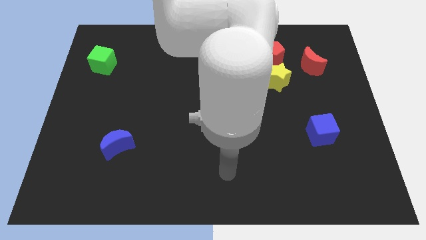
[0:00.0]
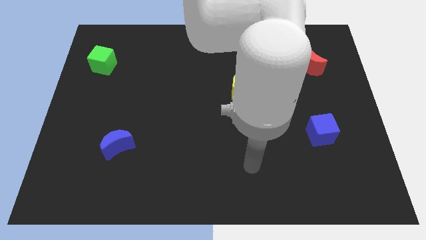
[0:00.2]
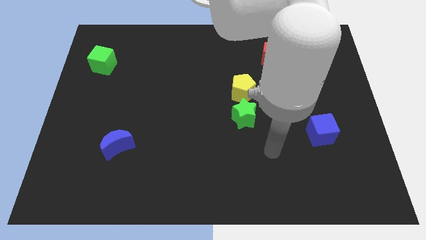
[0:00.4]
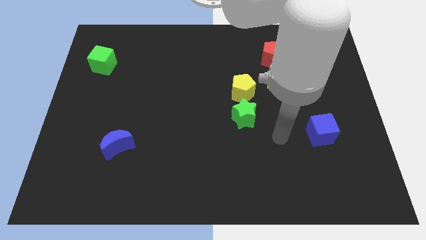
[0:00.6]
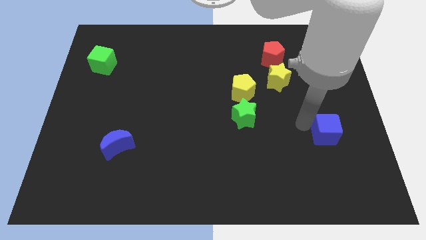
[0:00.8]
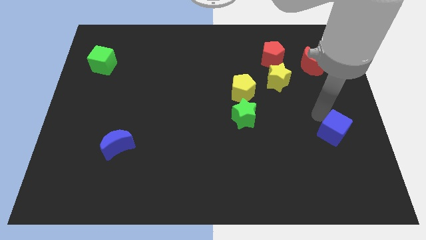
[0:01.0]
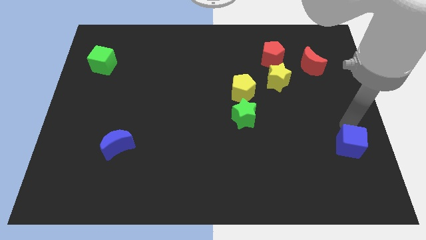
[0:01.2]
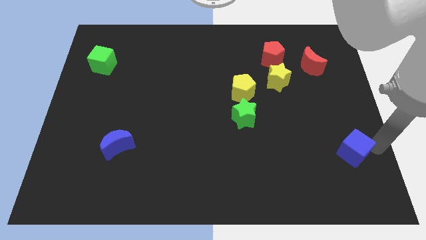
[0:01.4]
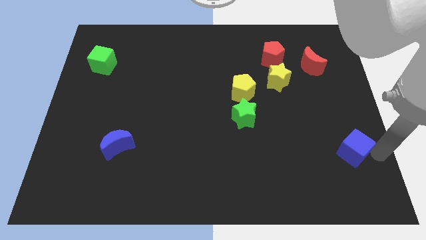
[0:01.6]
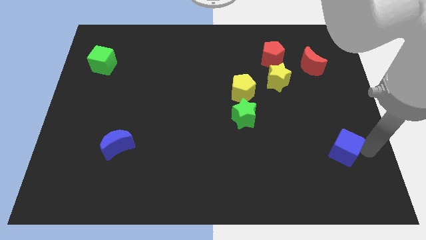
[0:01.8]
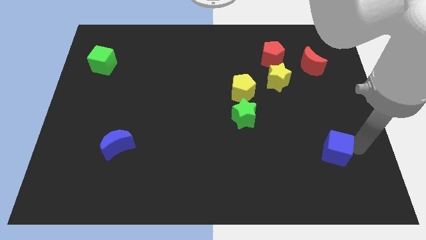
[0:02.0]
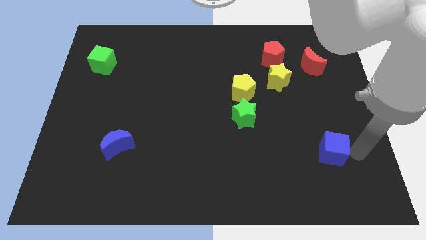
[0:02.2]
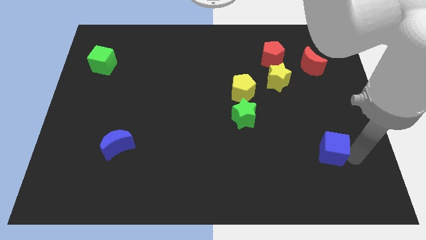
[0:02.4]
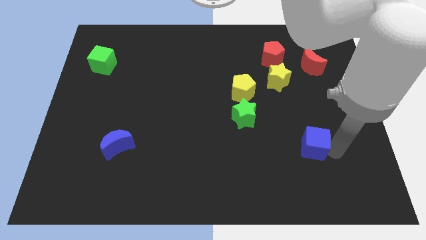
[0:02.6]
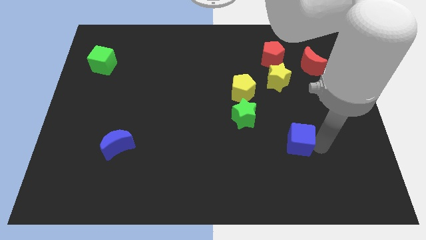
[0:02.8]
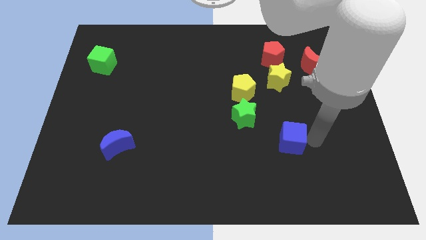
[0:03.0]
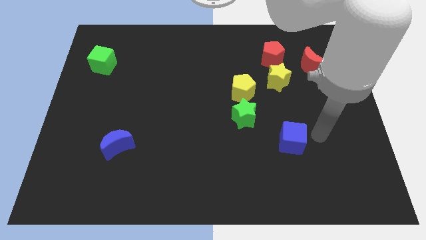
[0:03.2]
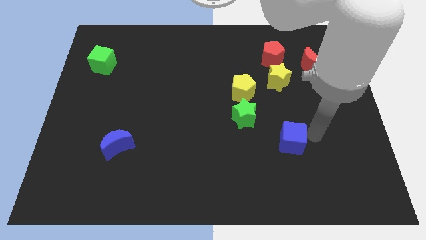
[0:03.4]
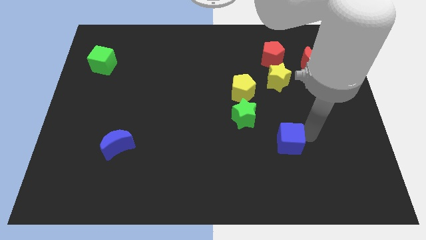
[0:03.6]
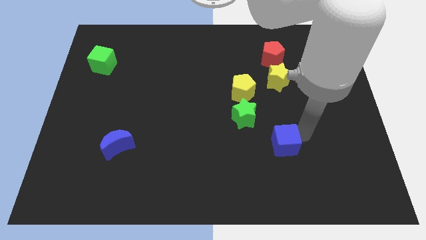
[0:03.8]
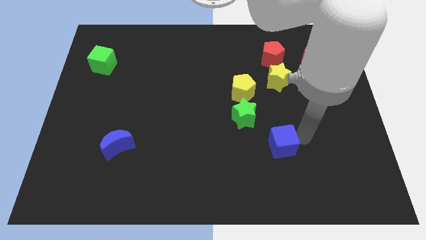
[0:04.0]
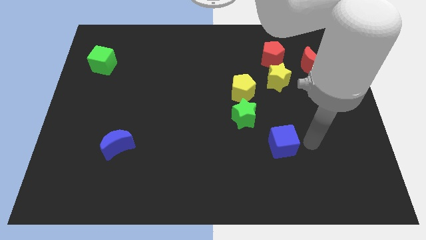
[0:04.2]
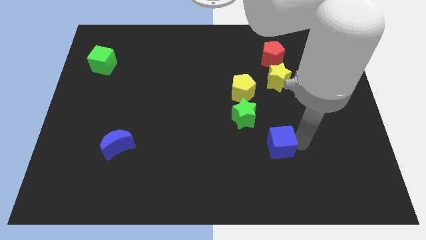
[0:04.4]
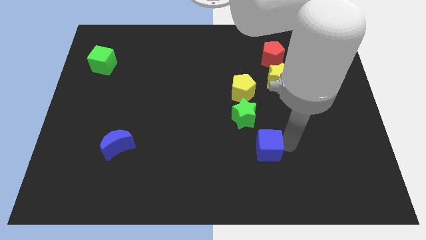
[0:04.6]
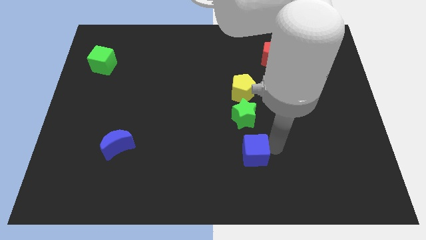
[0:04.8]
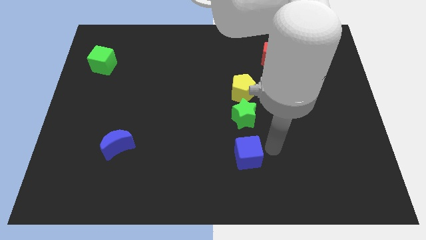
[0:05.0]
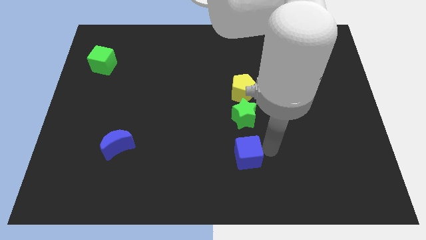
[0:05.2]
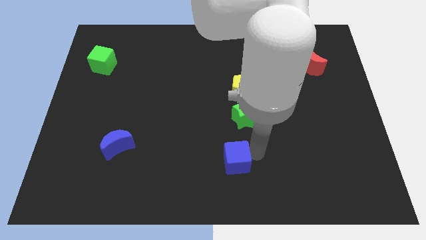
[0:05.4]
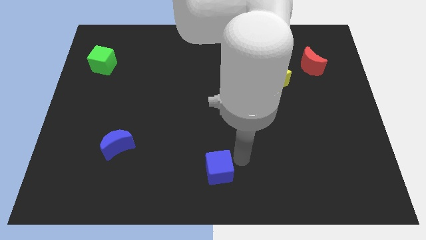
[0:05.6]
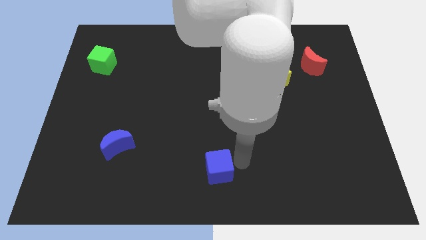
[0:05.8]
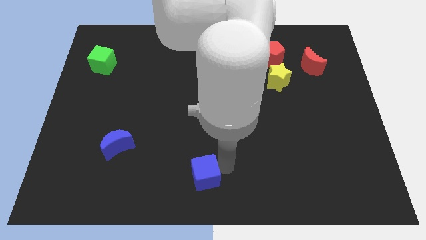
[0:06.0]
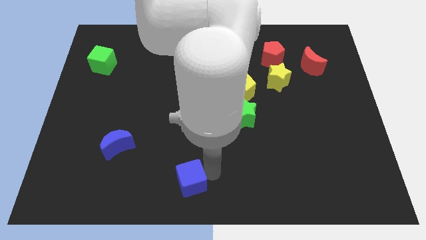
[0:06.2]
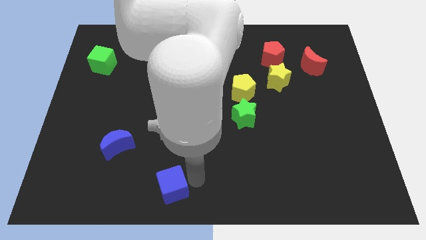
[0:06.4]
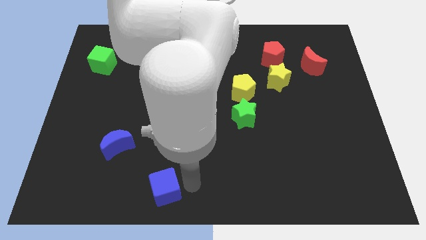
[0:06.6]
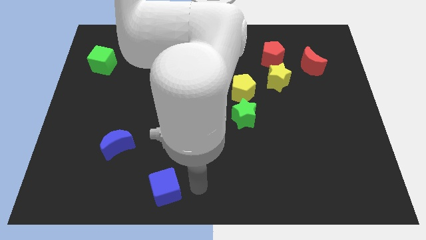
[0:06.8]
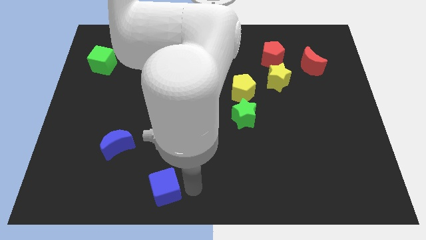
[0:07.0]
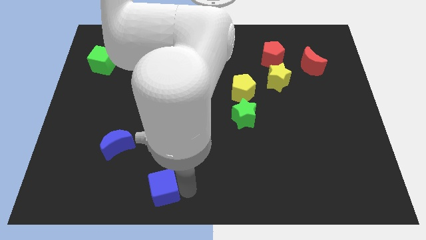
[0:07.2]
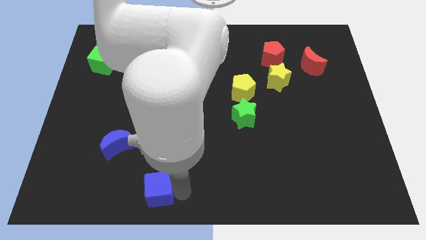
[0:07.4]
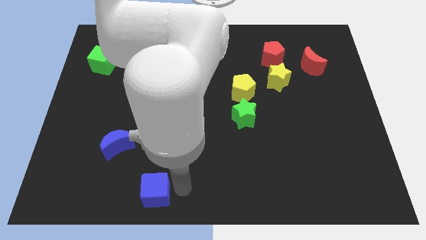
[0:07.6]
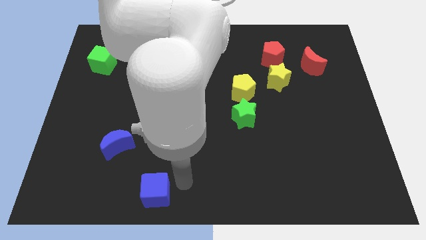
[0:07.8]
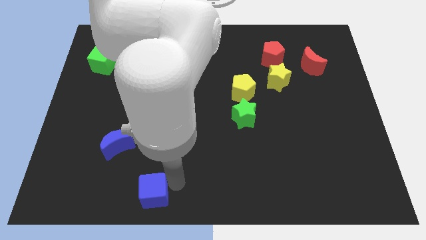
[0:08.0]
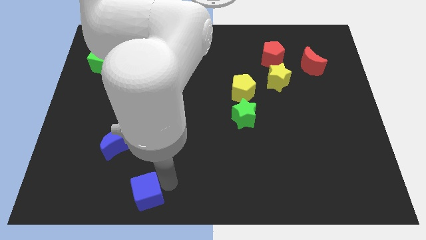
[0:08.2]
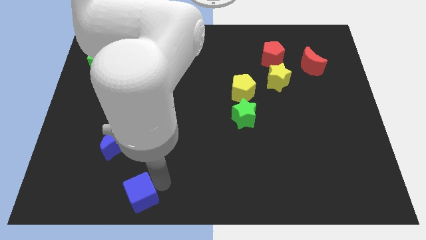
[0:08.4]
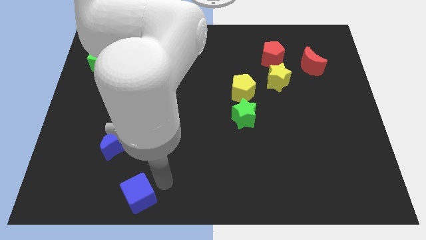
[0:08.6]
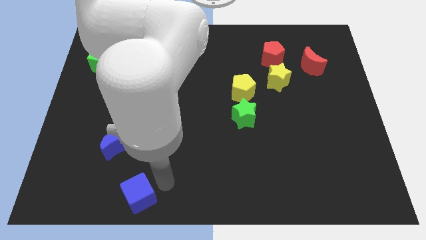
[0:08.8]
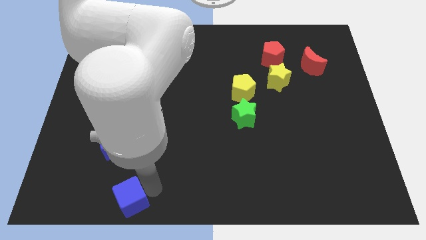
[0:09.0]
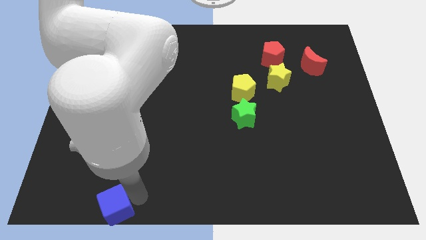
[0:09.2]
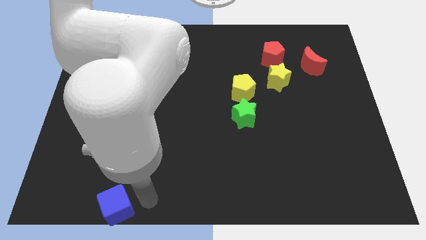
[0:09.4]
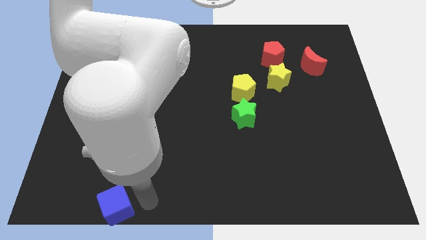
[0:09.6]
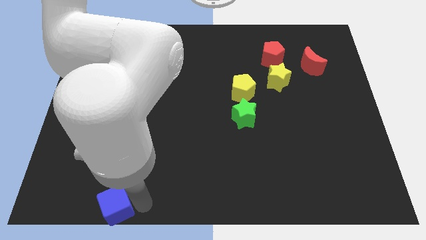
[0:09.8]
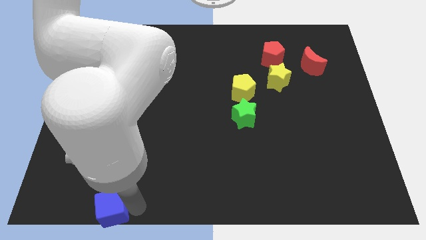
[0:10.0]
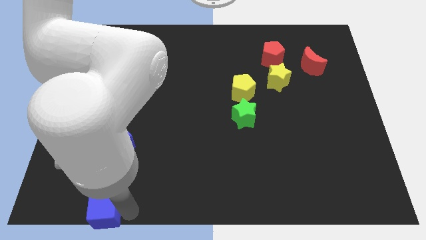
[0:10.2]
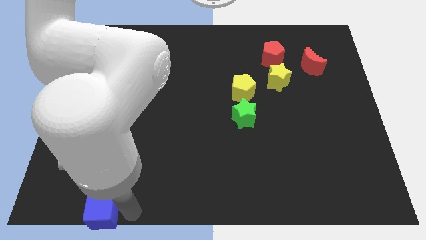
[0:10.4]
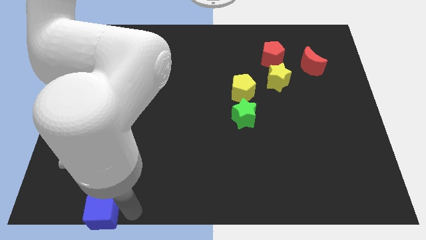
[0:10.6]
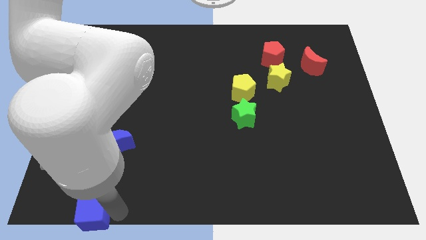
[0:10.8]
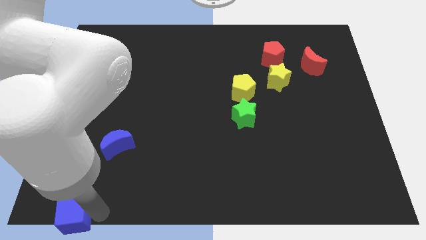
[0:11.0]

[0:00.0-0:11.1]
push the blue cube to the bottom left of the board

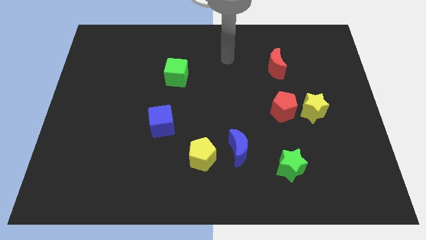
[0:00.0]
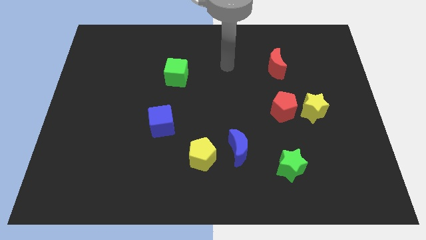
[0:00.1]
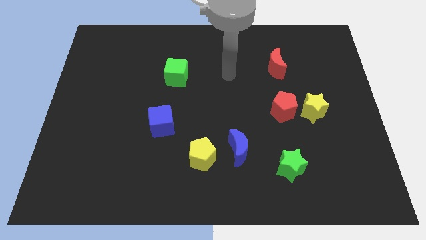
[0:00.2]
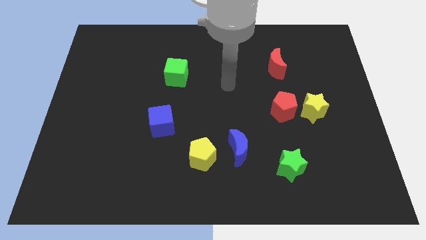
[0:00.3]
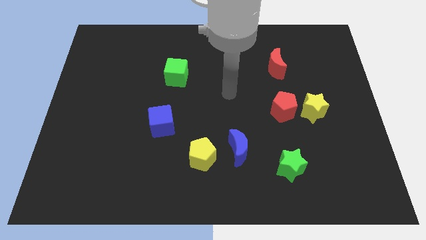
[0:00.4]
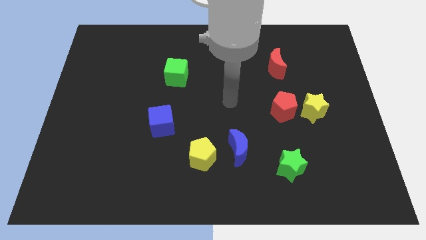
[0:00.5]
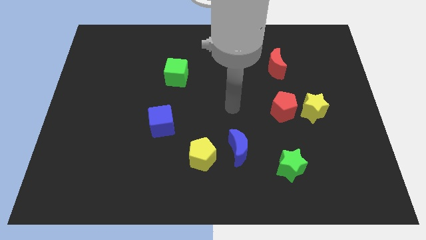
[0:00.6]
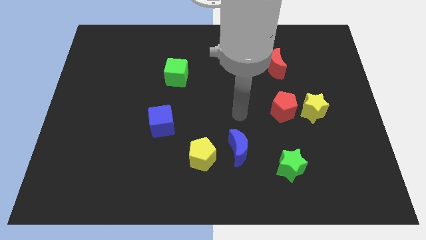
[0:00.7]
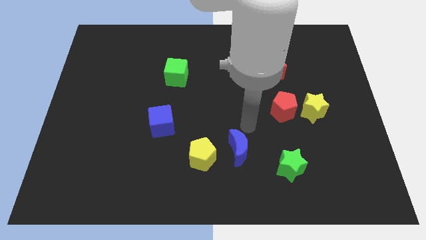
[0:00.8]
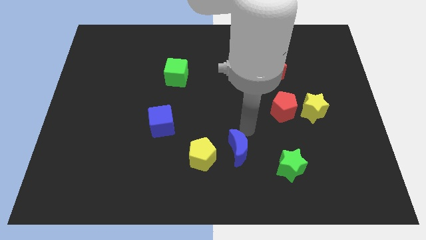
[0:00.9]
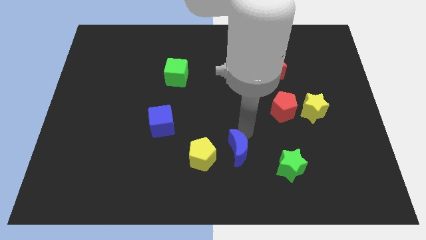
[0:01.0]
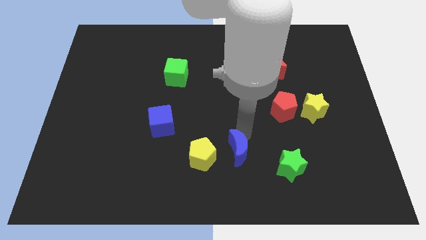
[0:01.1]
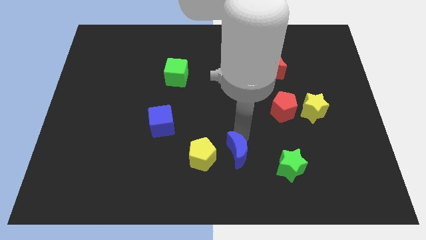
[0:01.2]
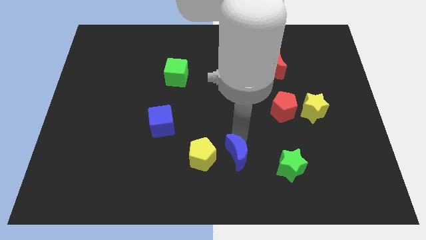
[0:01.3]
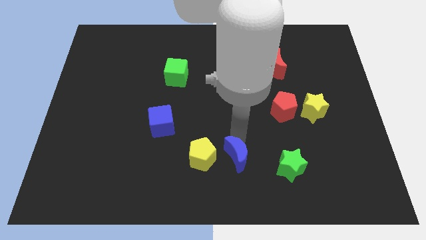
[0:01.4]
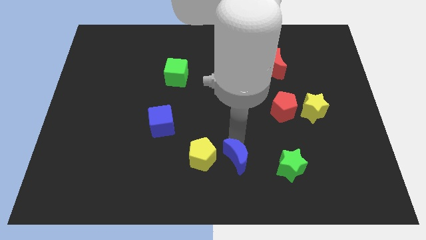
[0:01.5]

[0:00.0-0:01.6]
move the blue moon to the bottom
